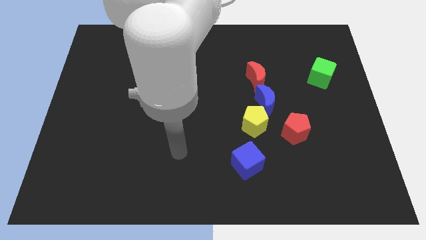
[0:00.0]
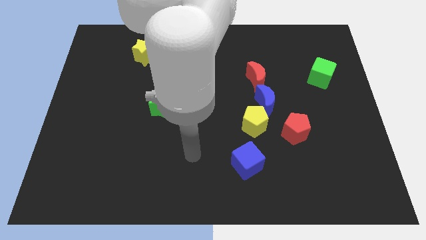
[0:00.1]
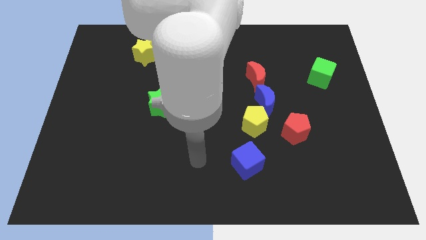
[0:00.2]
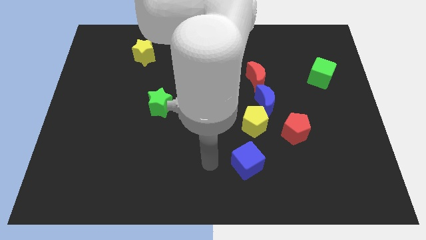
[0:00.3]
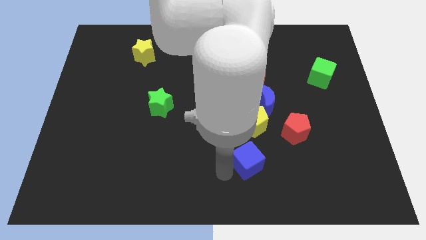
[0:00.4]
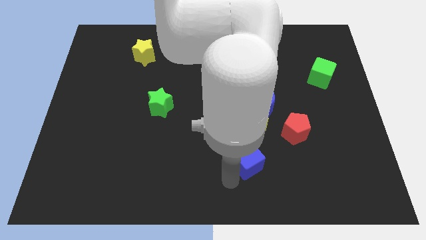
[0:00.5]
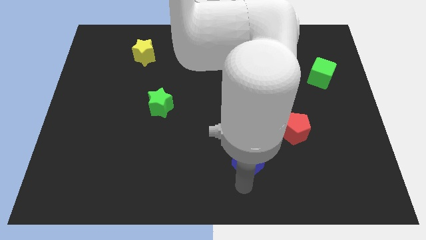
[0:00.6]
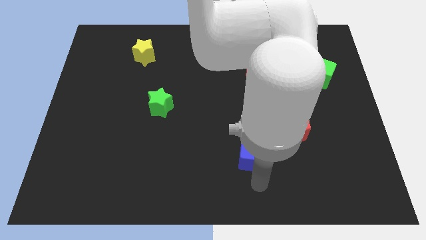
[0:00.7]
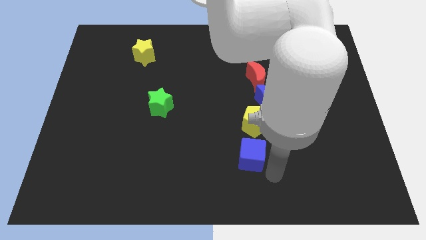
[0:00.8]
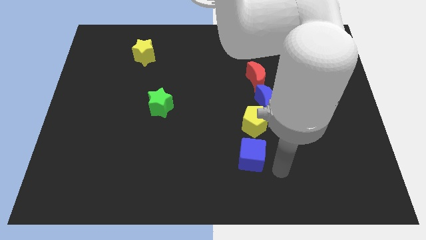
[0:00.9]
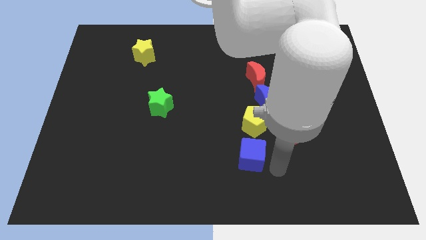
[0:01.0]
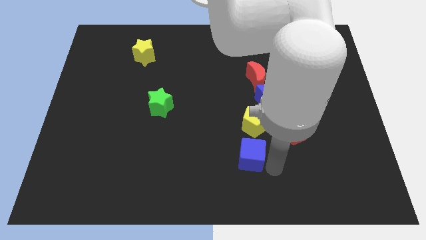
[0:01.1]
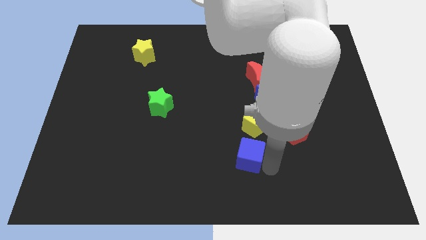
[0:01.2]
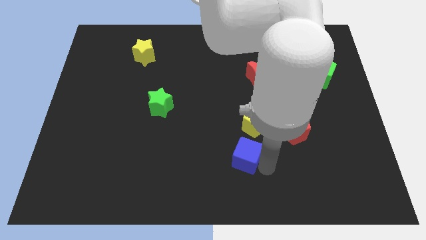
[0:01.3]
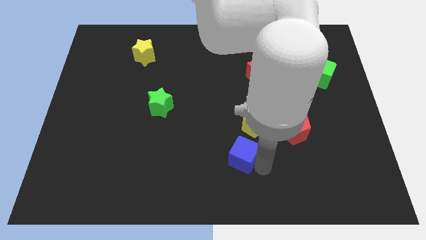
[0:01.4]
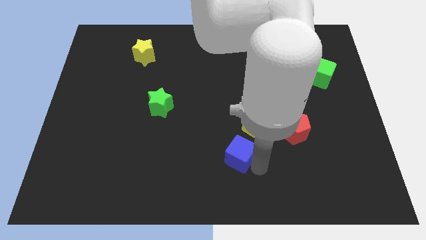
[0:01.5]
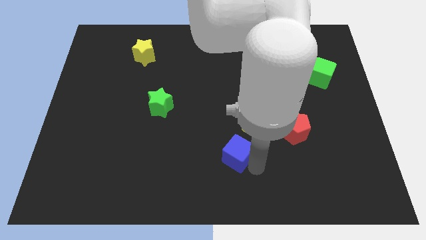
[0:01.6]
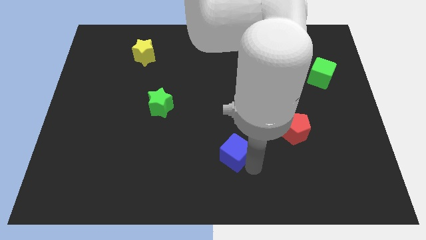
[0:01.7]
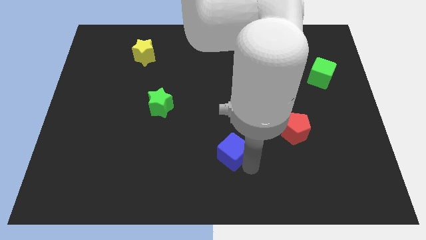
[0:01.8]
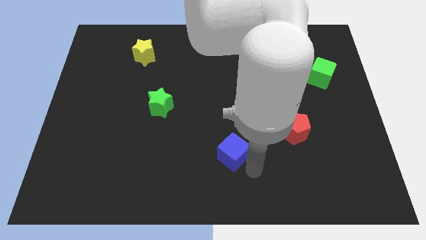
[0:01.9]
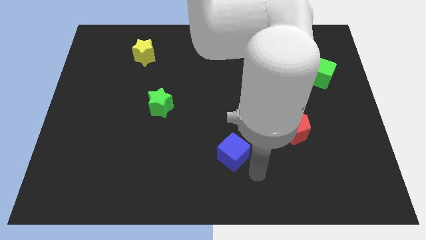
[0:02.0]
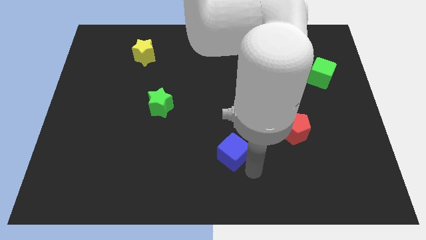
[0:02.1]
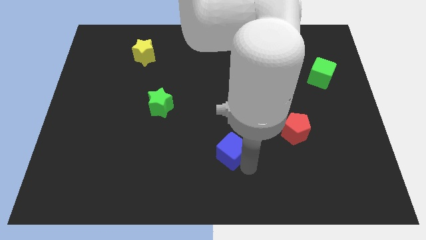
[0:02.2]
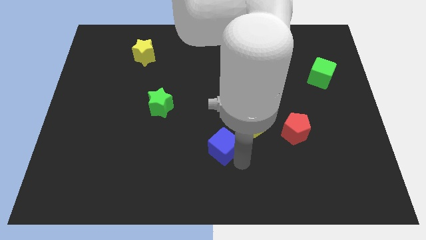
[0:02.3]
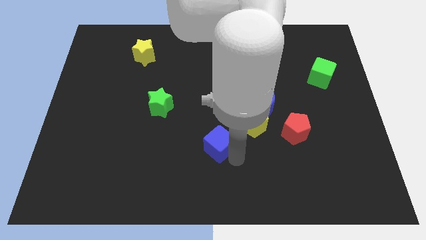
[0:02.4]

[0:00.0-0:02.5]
slide the blue cube a little up and then left

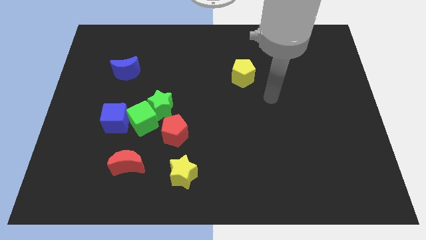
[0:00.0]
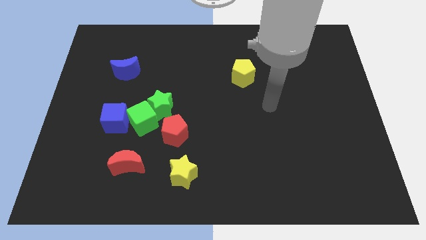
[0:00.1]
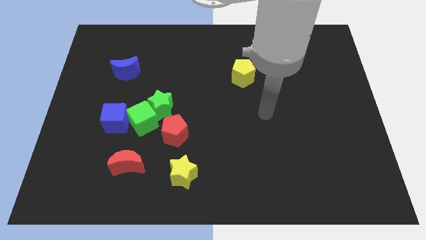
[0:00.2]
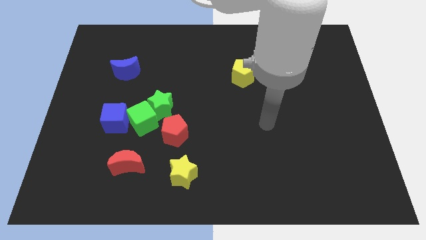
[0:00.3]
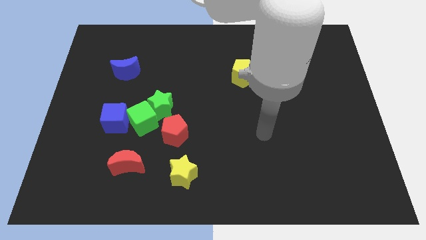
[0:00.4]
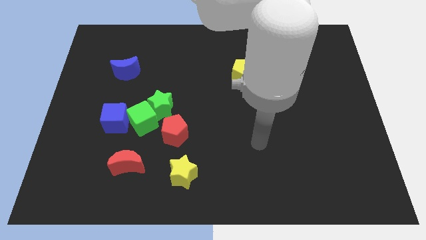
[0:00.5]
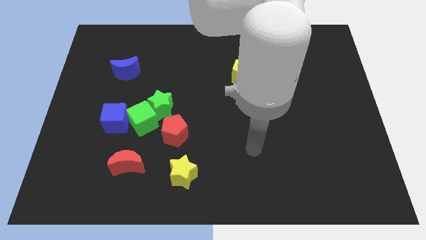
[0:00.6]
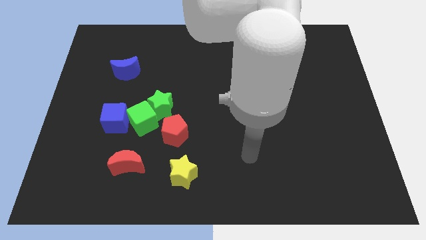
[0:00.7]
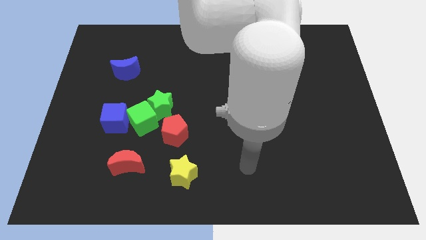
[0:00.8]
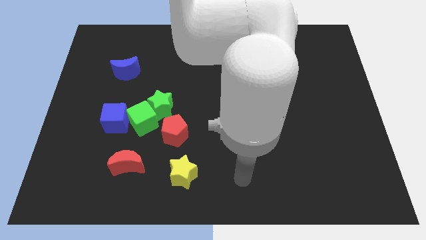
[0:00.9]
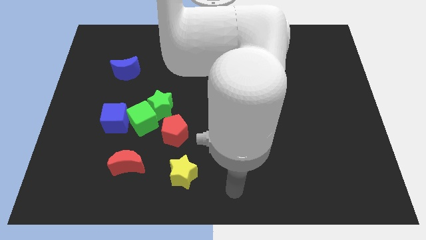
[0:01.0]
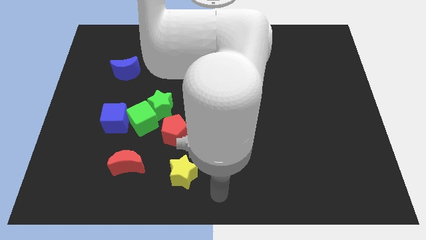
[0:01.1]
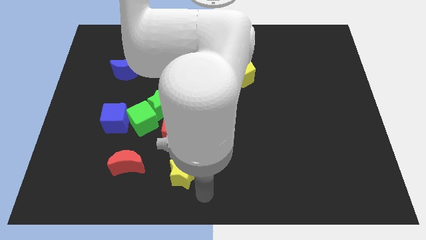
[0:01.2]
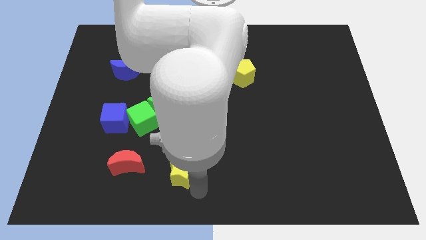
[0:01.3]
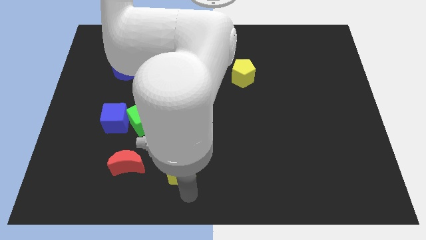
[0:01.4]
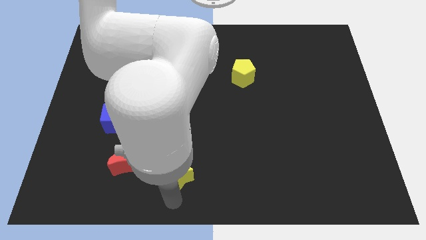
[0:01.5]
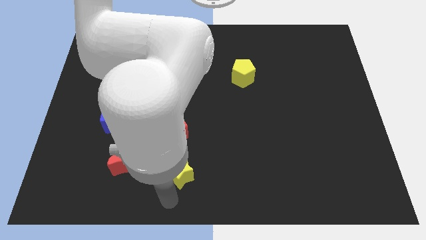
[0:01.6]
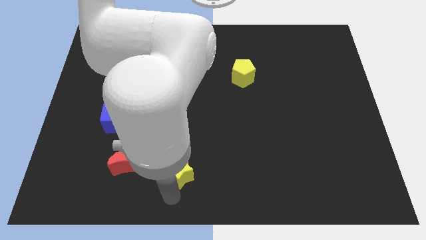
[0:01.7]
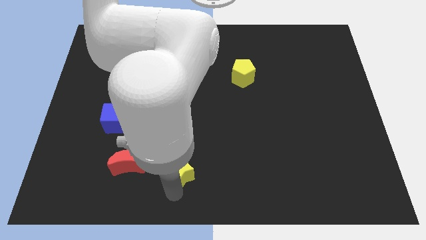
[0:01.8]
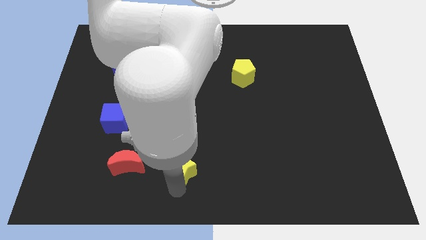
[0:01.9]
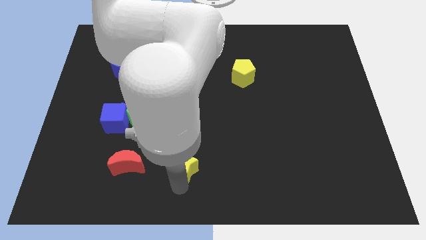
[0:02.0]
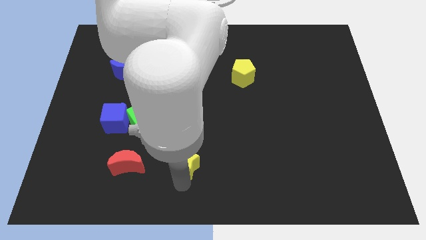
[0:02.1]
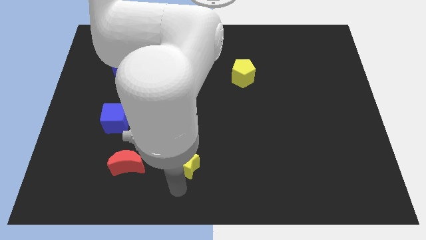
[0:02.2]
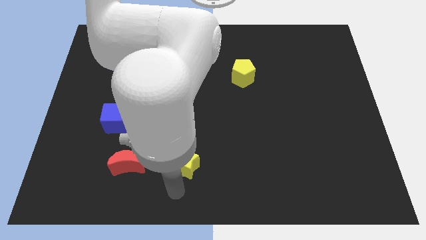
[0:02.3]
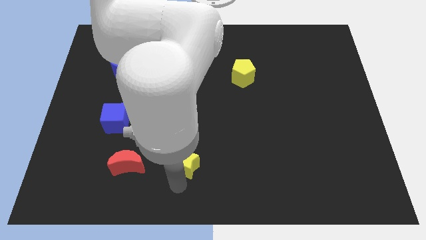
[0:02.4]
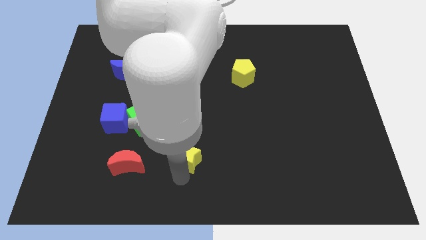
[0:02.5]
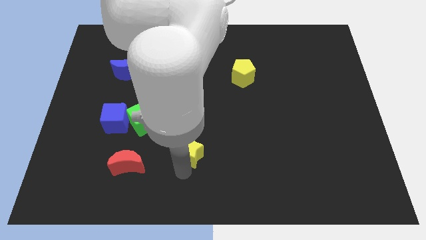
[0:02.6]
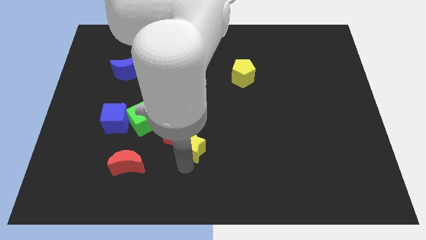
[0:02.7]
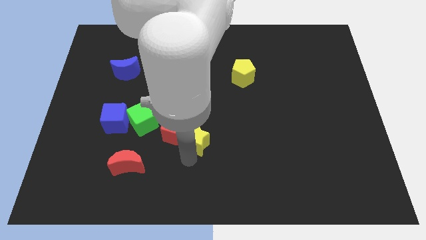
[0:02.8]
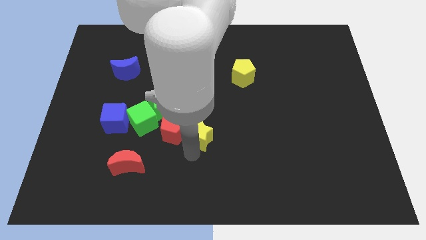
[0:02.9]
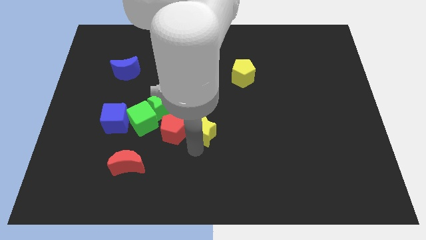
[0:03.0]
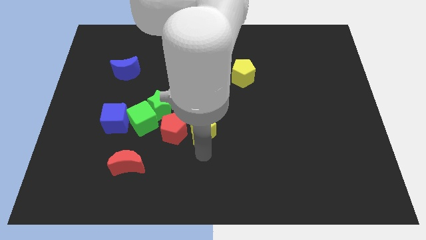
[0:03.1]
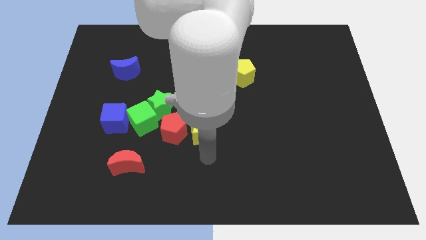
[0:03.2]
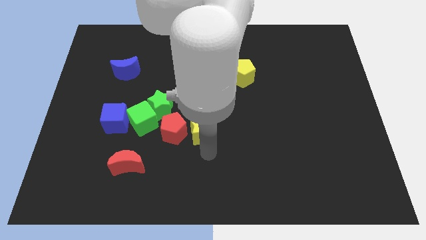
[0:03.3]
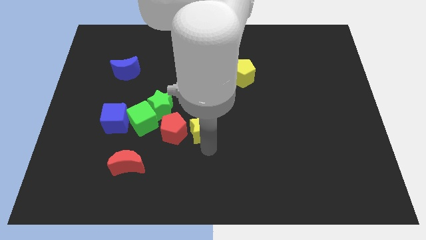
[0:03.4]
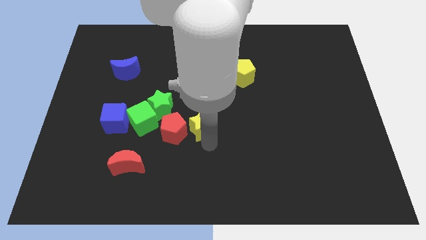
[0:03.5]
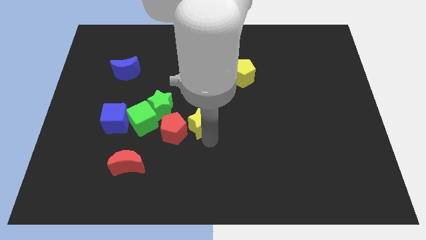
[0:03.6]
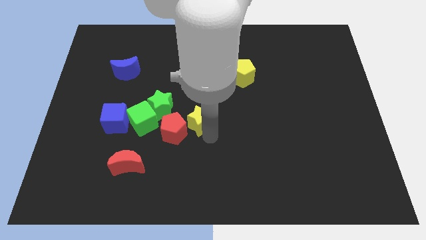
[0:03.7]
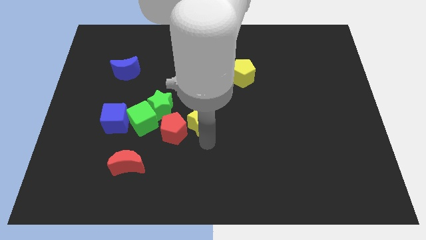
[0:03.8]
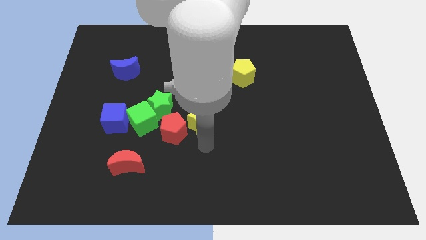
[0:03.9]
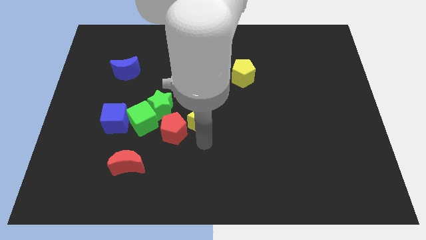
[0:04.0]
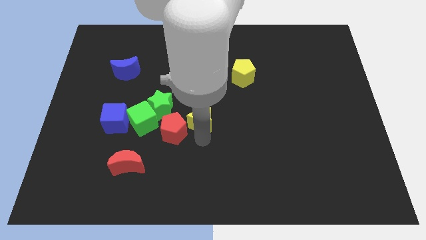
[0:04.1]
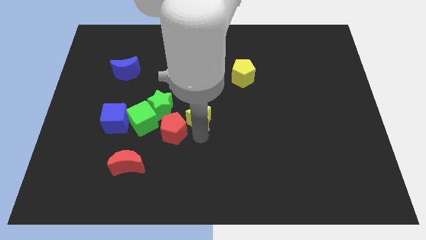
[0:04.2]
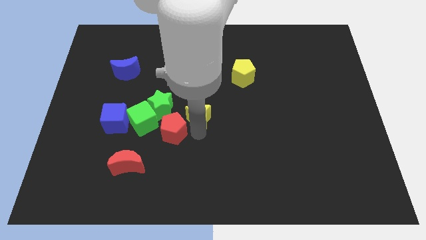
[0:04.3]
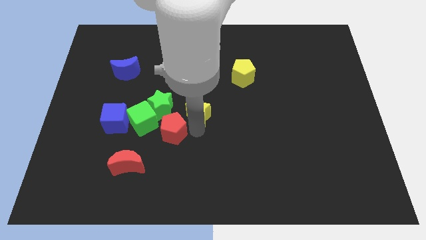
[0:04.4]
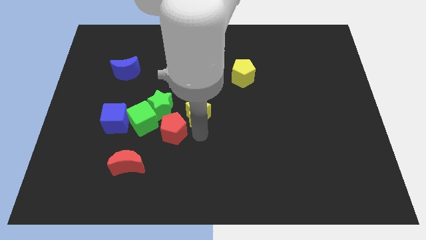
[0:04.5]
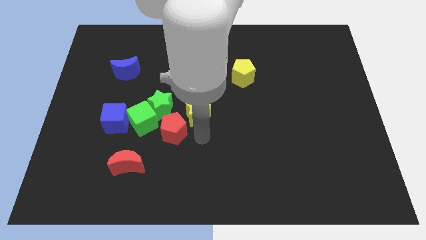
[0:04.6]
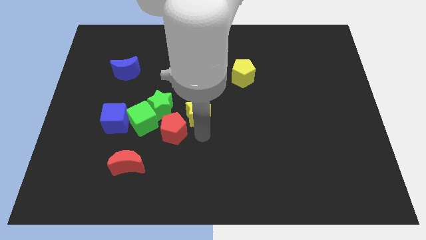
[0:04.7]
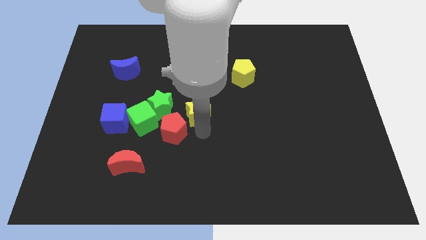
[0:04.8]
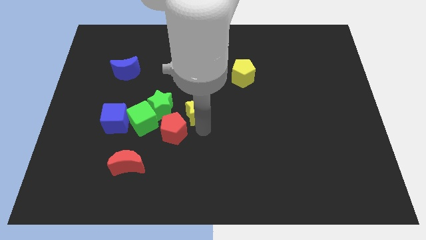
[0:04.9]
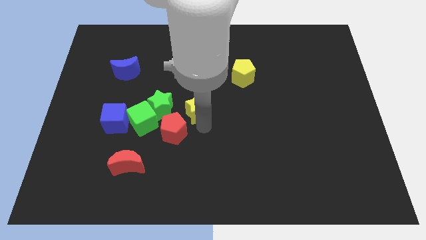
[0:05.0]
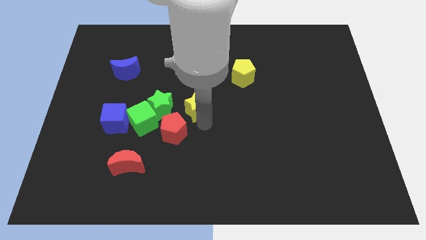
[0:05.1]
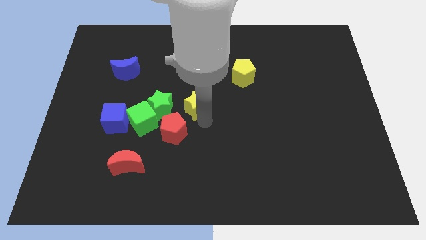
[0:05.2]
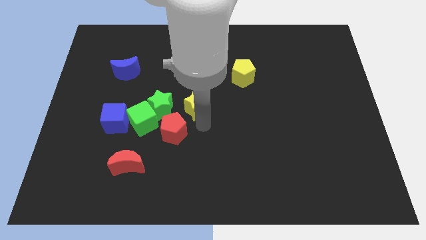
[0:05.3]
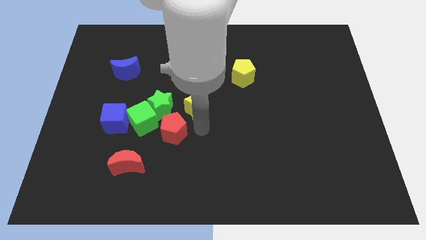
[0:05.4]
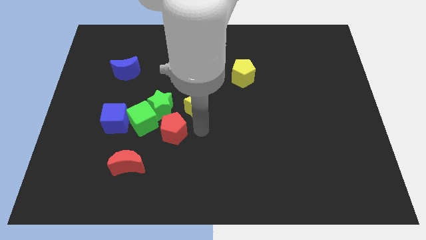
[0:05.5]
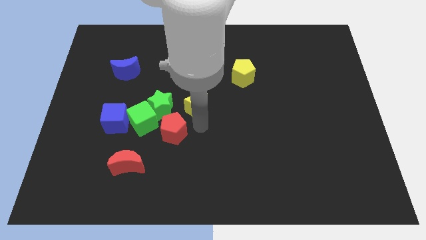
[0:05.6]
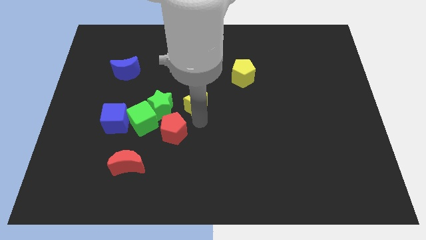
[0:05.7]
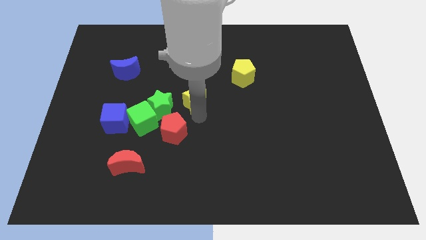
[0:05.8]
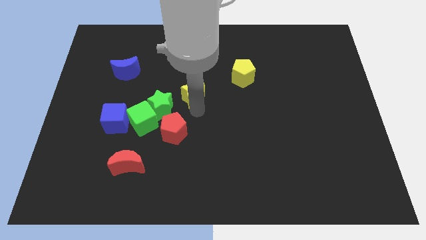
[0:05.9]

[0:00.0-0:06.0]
push the yellow star up
